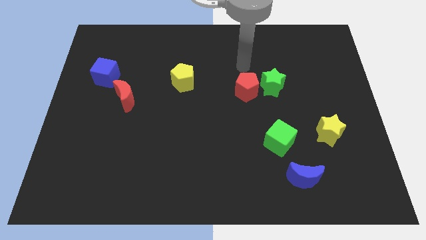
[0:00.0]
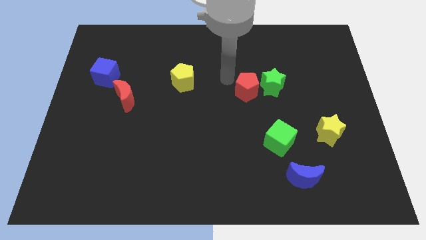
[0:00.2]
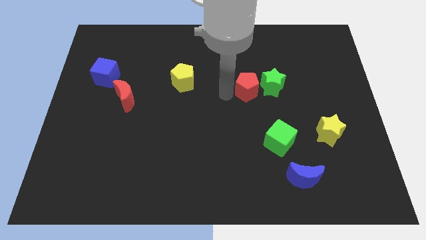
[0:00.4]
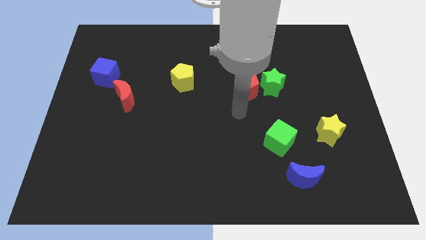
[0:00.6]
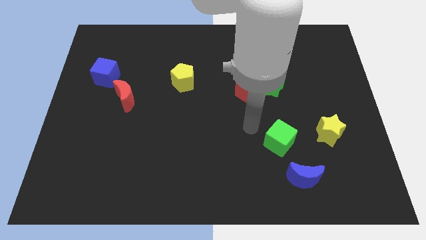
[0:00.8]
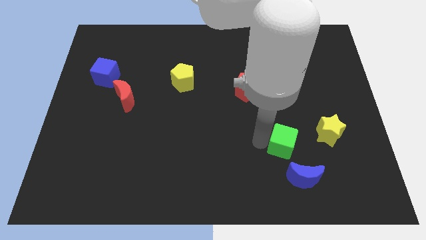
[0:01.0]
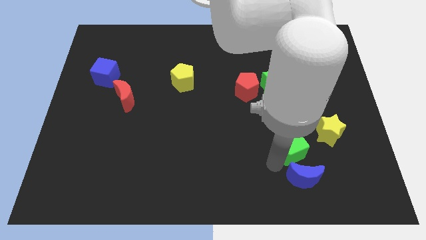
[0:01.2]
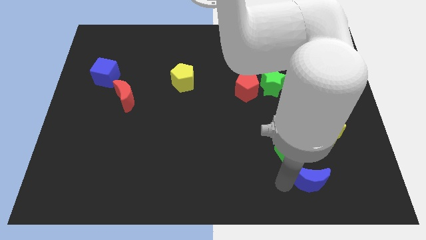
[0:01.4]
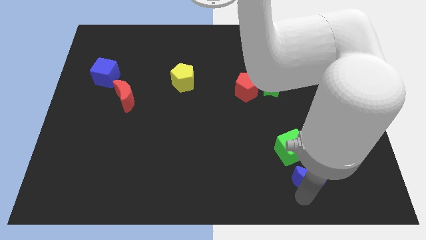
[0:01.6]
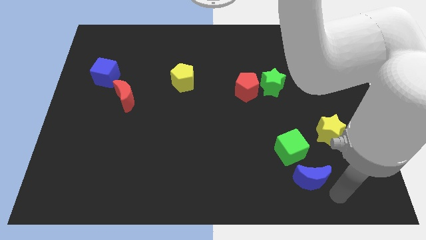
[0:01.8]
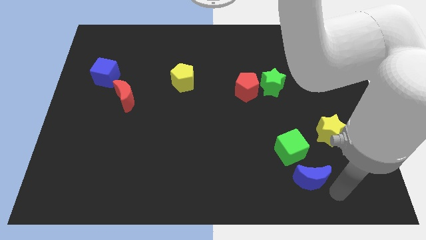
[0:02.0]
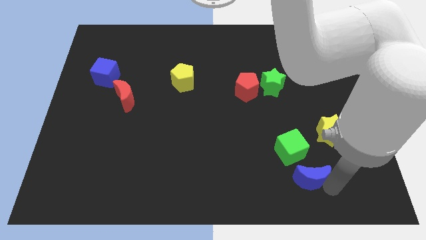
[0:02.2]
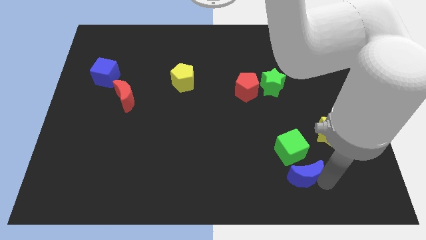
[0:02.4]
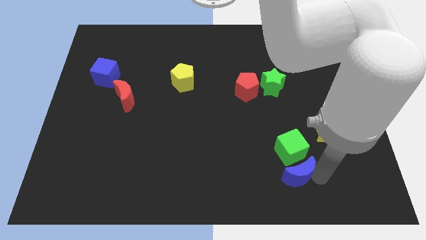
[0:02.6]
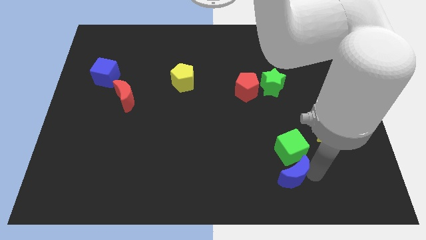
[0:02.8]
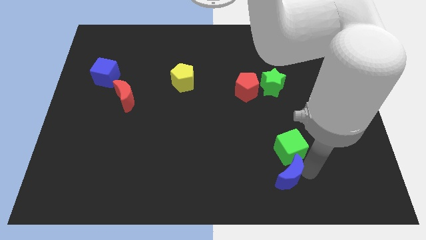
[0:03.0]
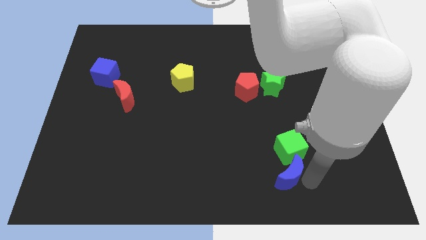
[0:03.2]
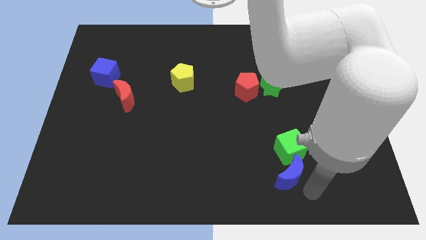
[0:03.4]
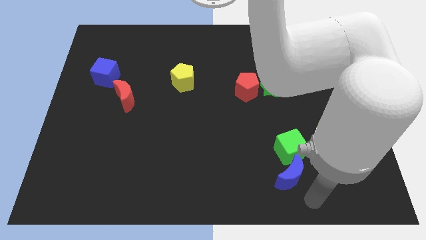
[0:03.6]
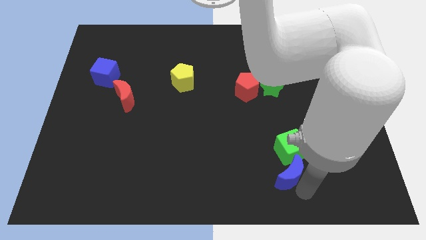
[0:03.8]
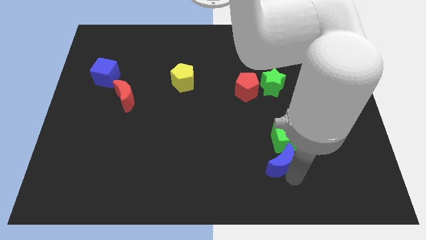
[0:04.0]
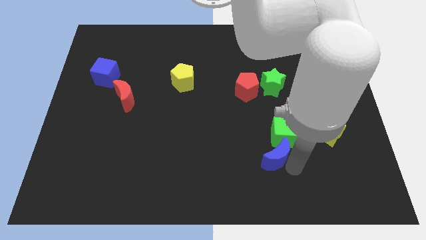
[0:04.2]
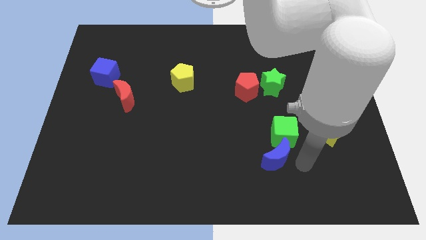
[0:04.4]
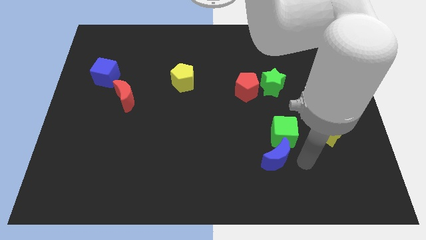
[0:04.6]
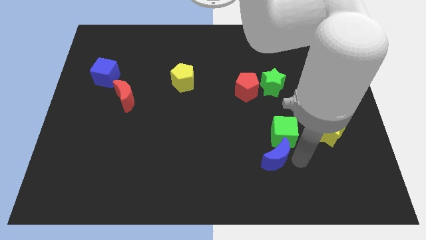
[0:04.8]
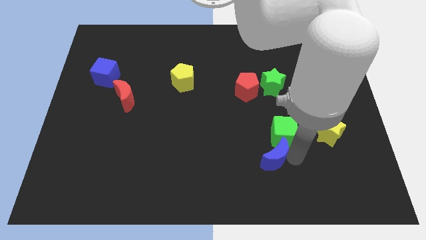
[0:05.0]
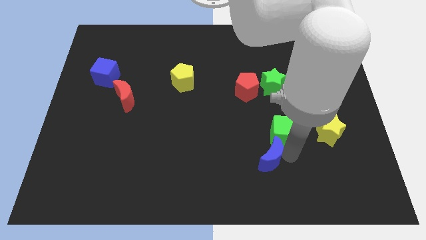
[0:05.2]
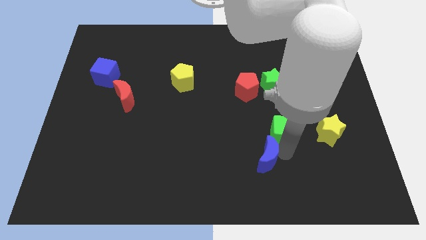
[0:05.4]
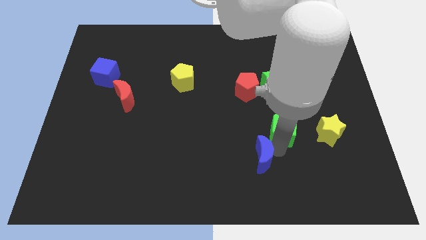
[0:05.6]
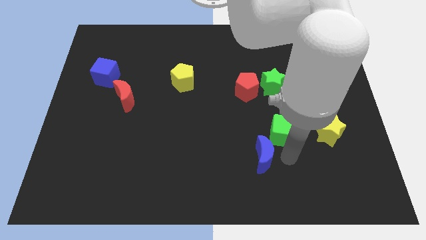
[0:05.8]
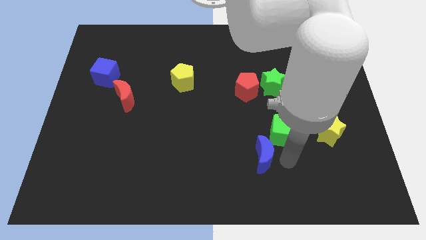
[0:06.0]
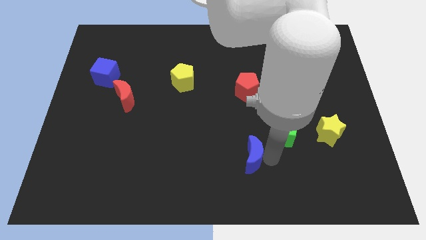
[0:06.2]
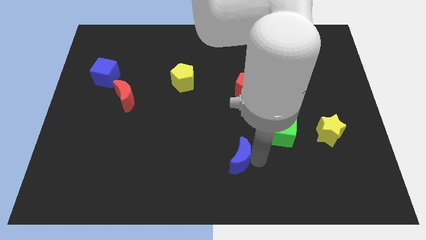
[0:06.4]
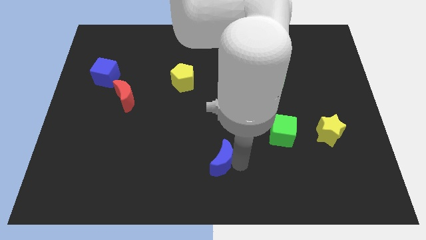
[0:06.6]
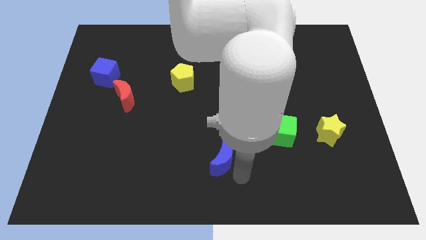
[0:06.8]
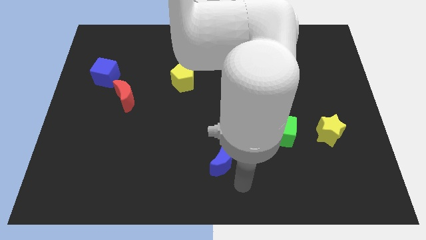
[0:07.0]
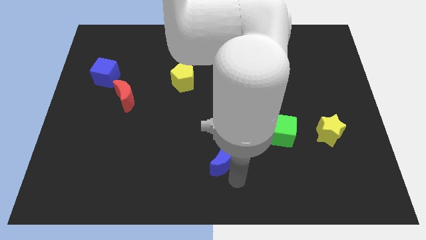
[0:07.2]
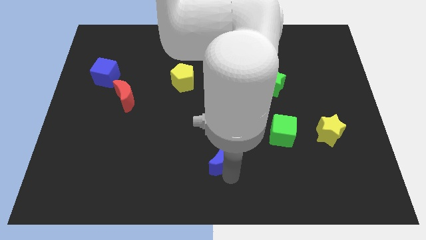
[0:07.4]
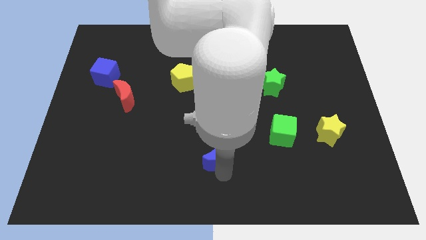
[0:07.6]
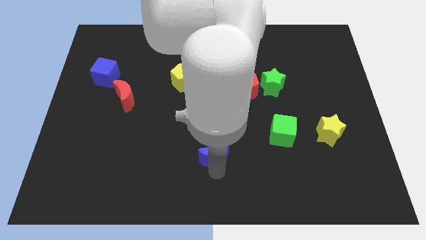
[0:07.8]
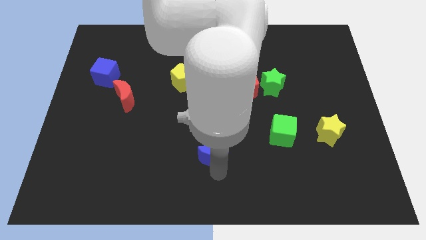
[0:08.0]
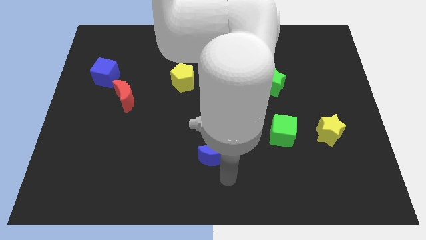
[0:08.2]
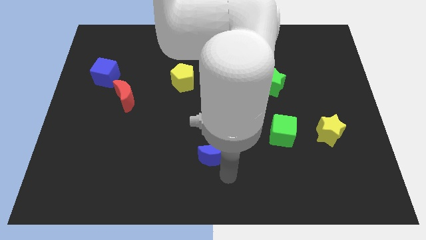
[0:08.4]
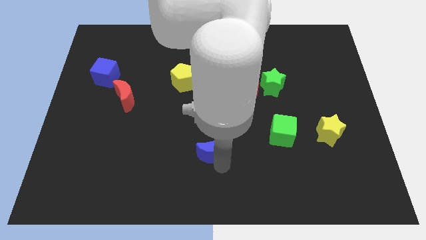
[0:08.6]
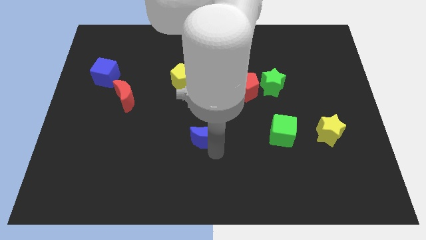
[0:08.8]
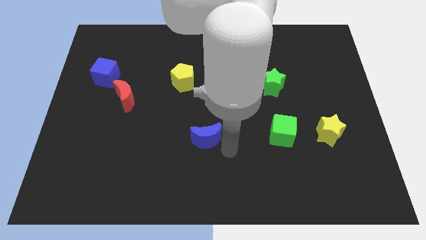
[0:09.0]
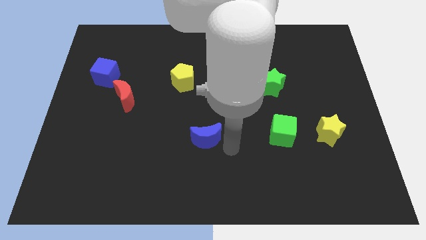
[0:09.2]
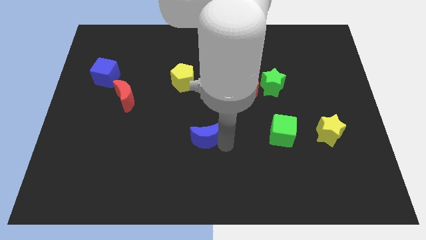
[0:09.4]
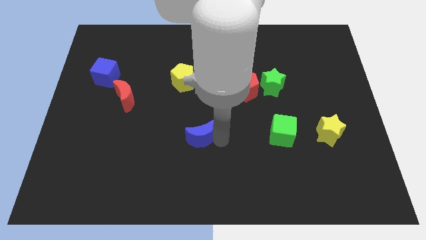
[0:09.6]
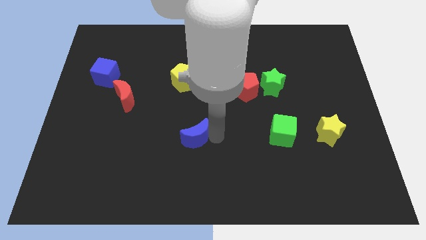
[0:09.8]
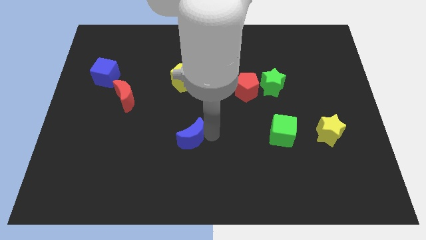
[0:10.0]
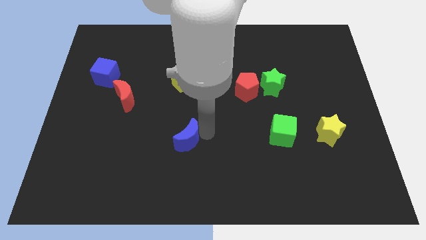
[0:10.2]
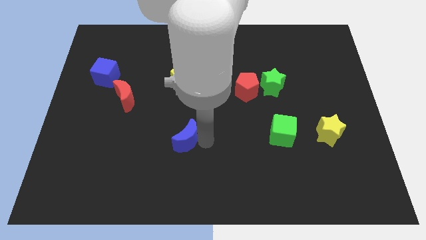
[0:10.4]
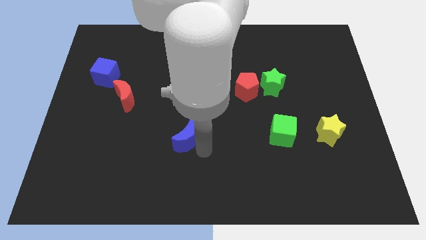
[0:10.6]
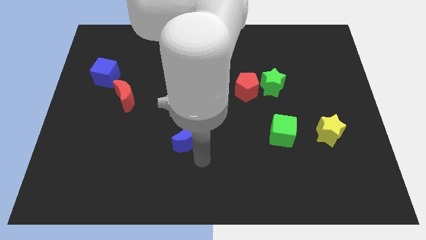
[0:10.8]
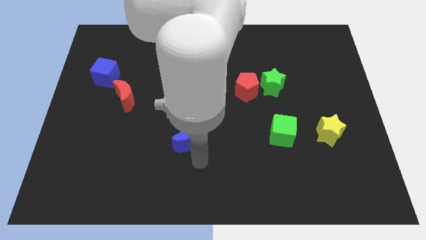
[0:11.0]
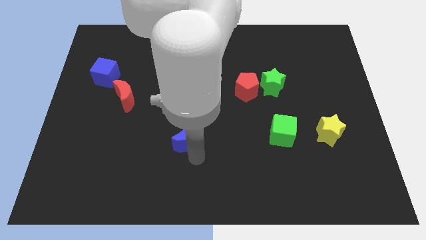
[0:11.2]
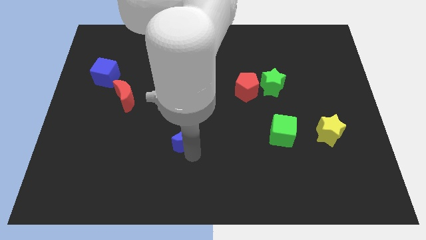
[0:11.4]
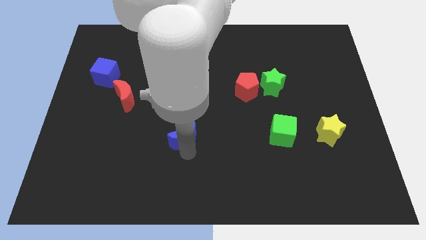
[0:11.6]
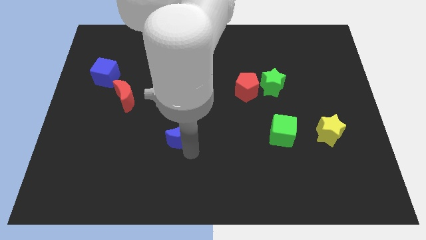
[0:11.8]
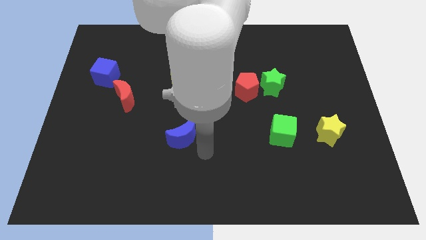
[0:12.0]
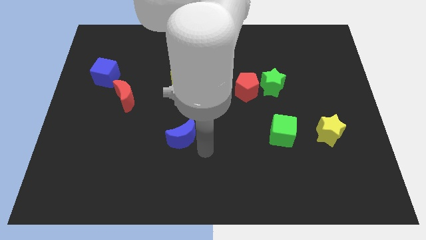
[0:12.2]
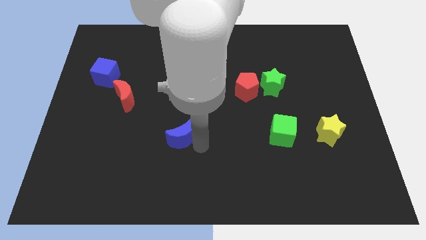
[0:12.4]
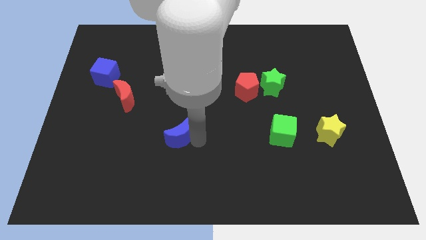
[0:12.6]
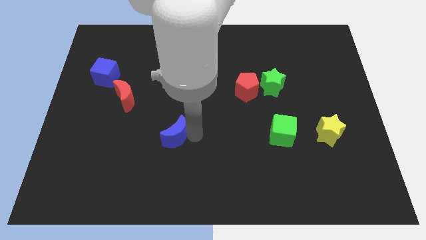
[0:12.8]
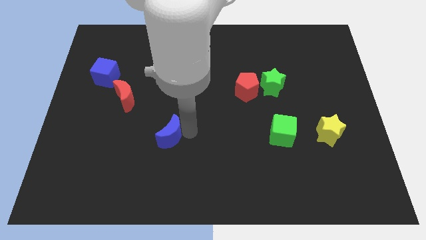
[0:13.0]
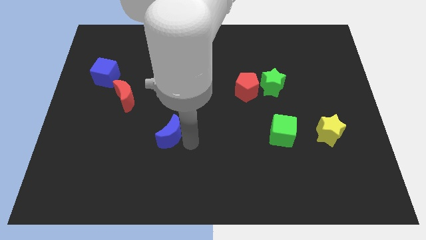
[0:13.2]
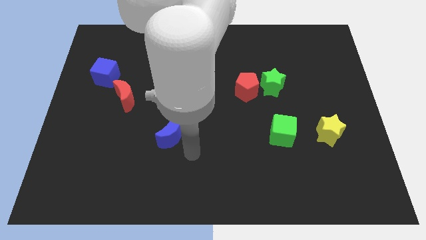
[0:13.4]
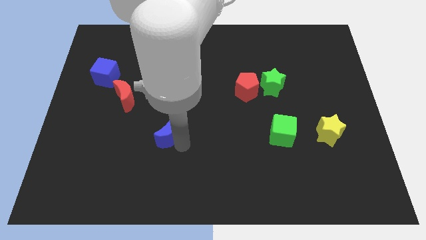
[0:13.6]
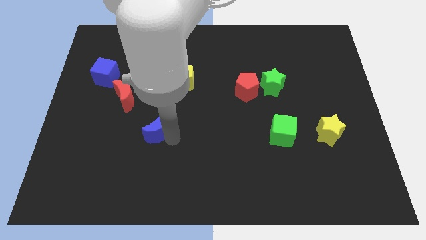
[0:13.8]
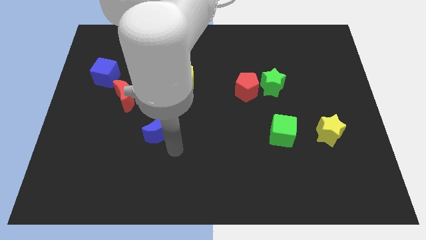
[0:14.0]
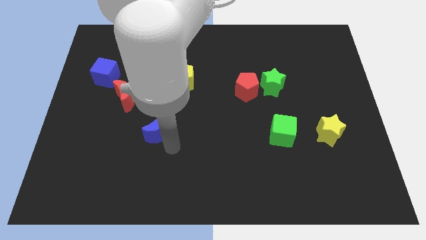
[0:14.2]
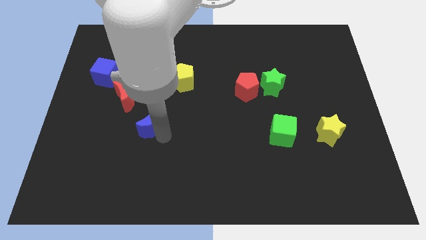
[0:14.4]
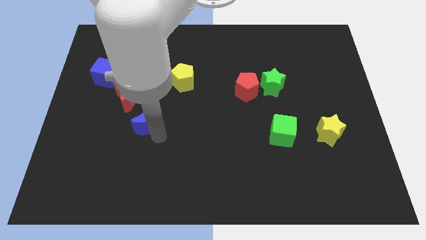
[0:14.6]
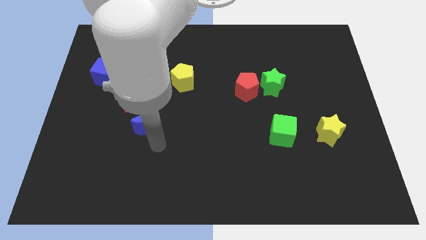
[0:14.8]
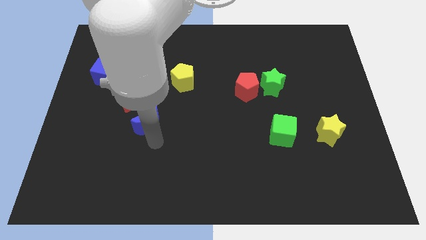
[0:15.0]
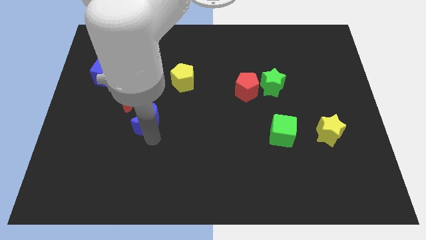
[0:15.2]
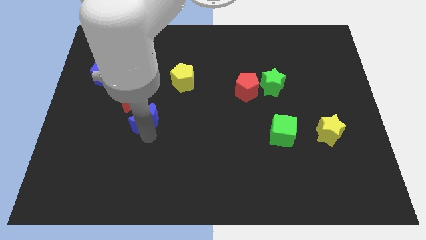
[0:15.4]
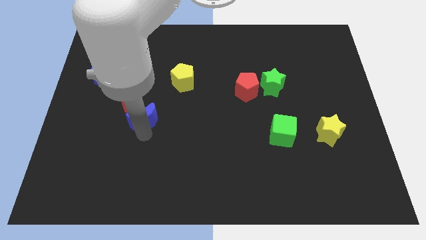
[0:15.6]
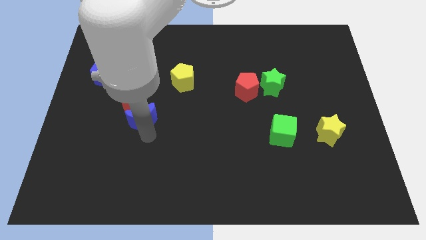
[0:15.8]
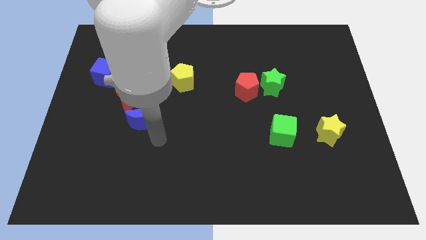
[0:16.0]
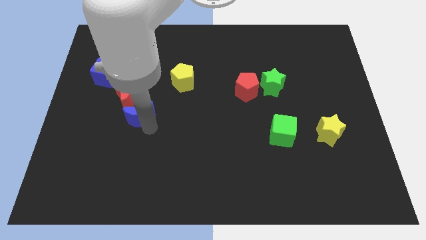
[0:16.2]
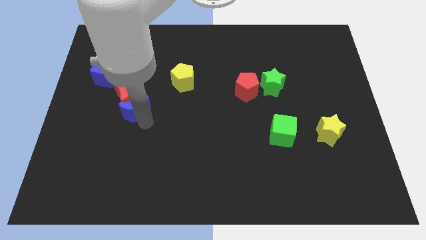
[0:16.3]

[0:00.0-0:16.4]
slide the blue moon to the red moon
